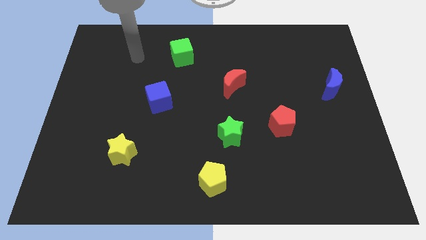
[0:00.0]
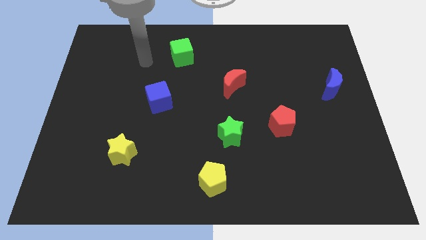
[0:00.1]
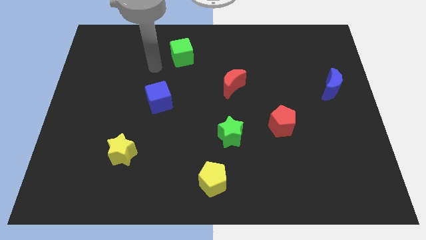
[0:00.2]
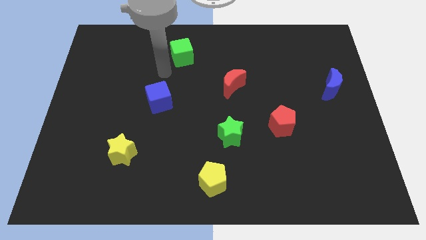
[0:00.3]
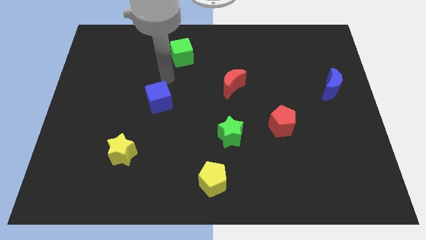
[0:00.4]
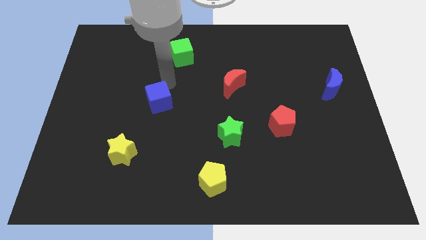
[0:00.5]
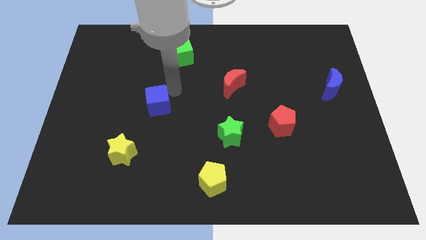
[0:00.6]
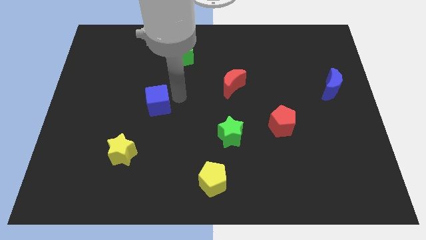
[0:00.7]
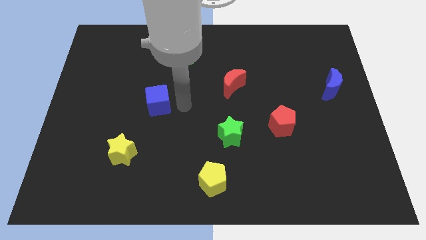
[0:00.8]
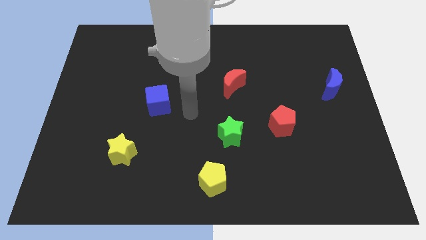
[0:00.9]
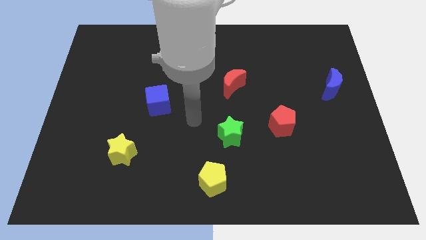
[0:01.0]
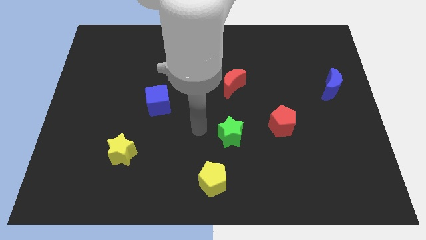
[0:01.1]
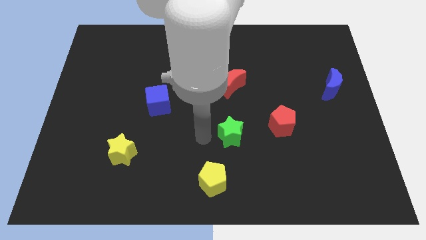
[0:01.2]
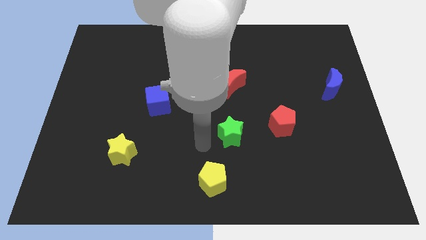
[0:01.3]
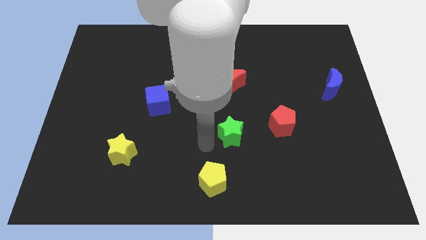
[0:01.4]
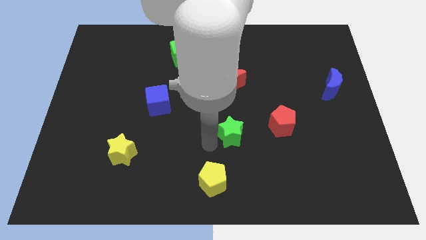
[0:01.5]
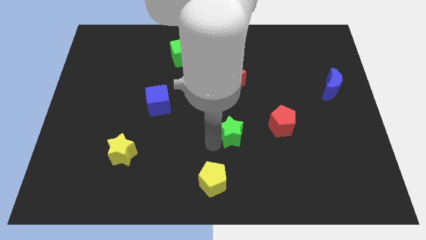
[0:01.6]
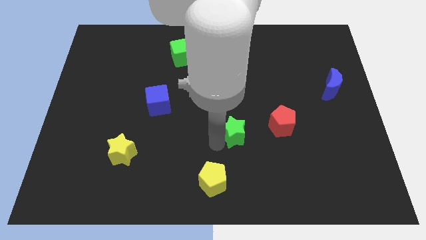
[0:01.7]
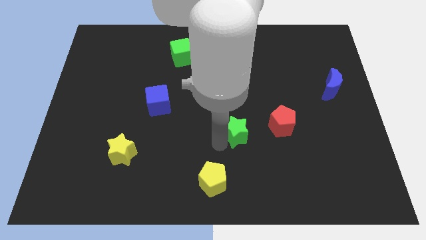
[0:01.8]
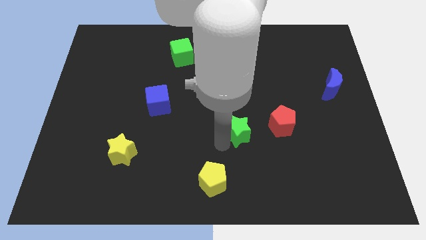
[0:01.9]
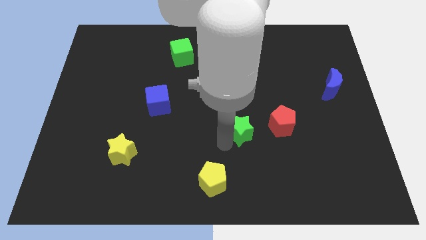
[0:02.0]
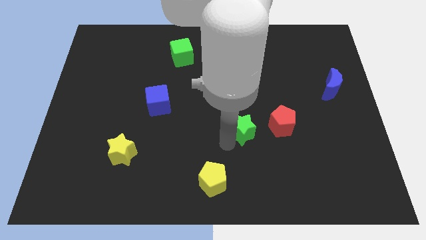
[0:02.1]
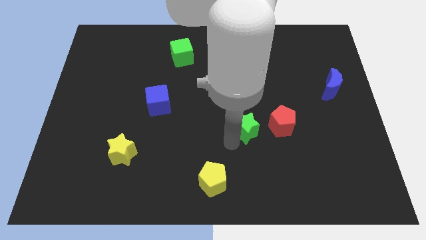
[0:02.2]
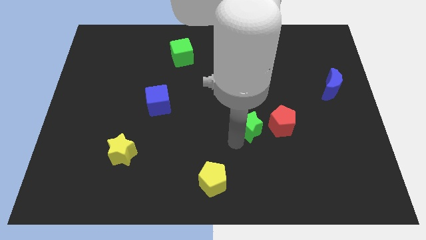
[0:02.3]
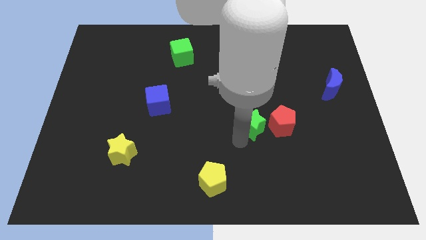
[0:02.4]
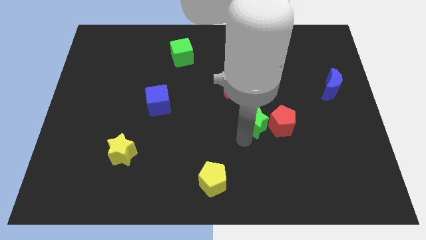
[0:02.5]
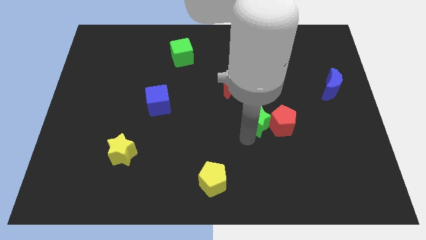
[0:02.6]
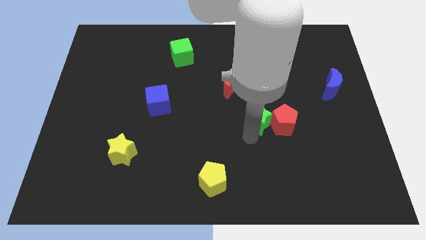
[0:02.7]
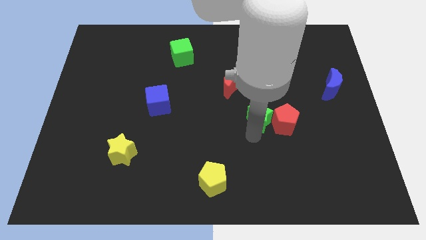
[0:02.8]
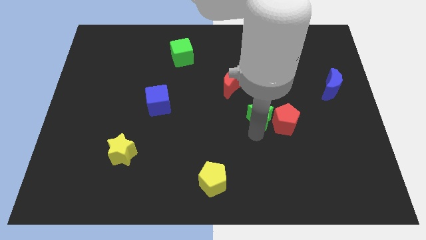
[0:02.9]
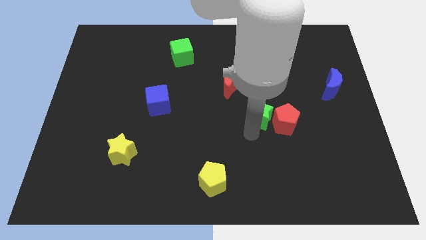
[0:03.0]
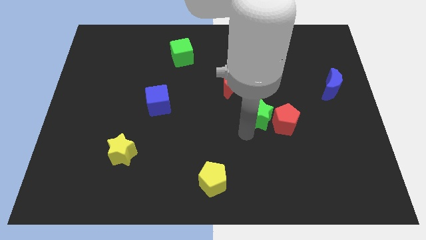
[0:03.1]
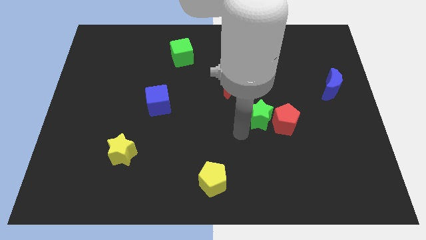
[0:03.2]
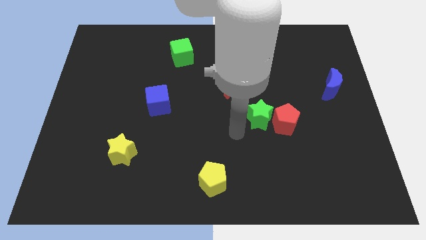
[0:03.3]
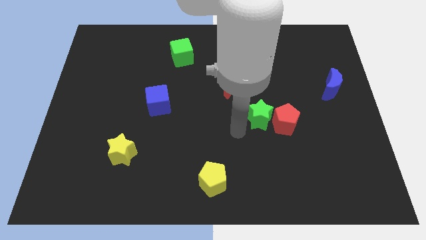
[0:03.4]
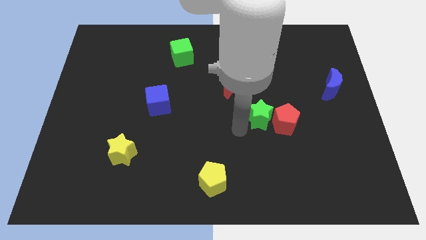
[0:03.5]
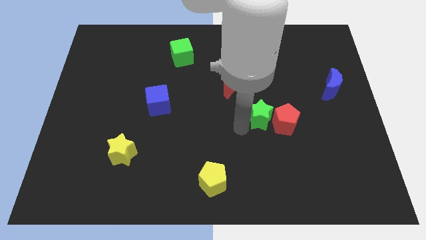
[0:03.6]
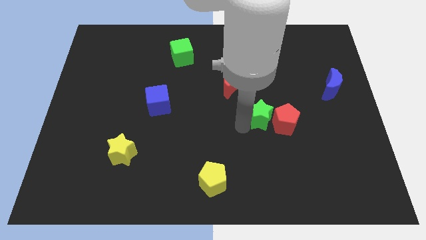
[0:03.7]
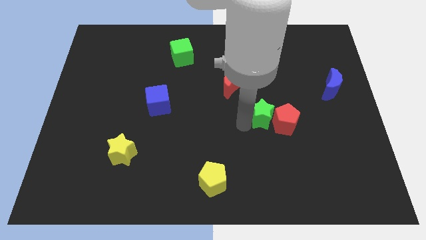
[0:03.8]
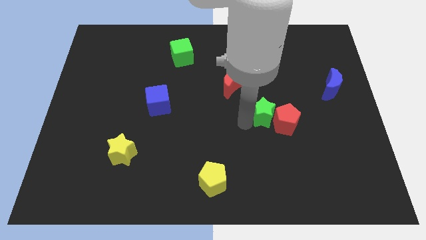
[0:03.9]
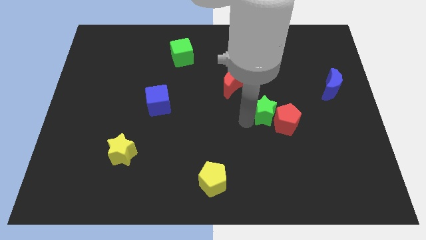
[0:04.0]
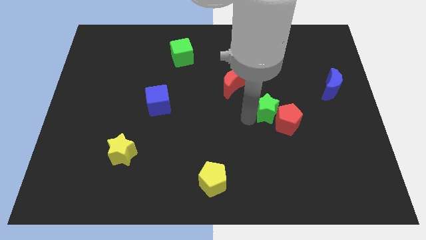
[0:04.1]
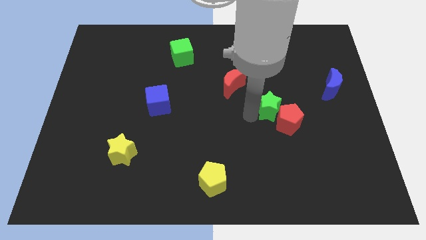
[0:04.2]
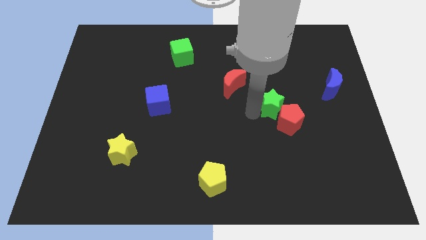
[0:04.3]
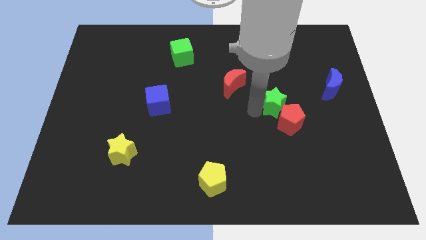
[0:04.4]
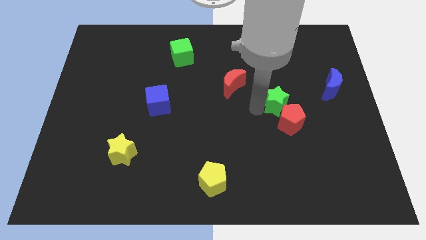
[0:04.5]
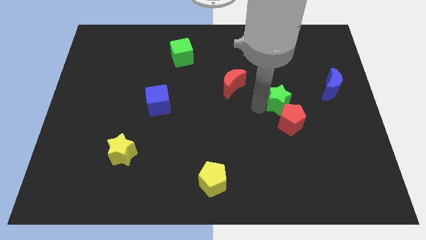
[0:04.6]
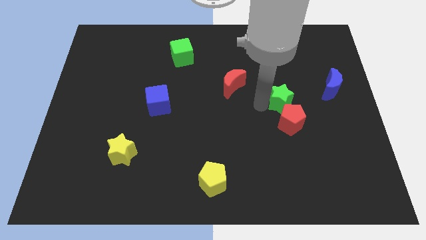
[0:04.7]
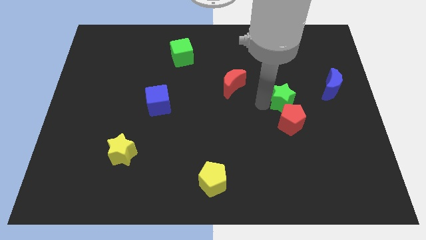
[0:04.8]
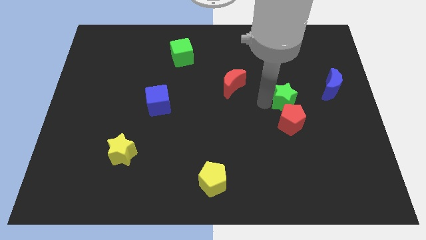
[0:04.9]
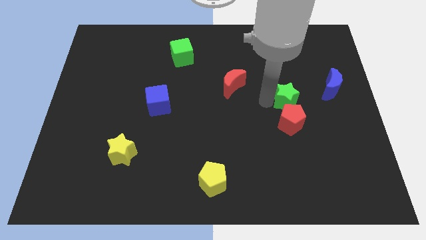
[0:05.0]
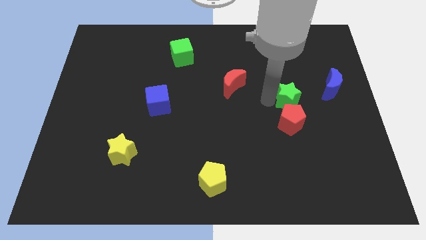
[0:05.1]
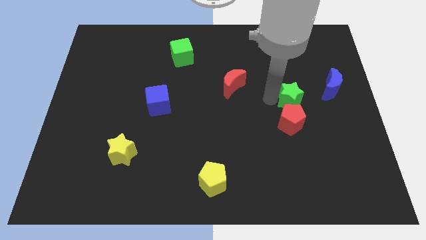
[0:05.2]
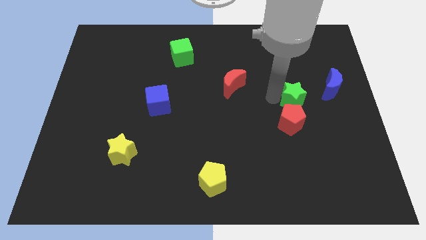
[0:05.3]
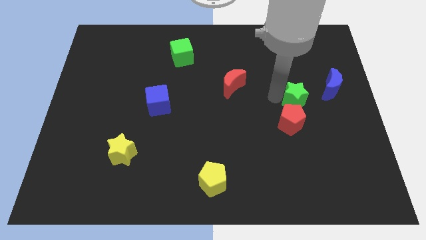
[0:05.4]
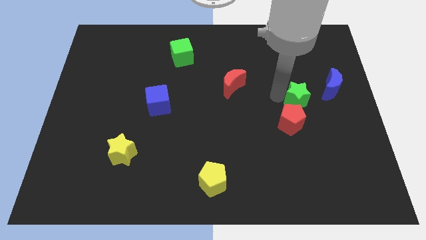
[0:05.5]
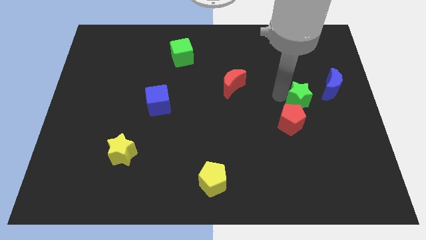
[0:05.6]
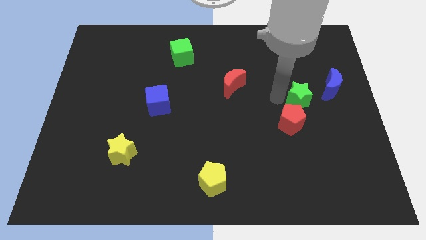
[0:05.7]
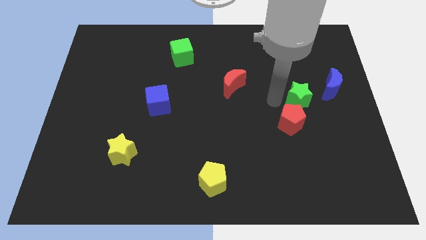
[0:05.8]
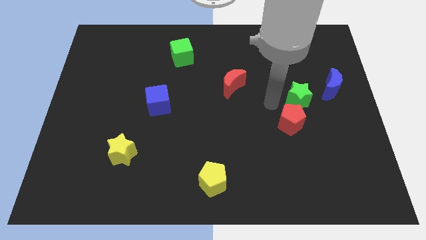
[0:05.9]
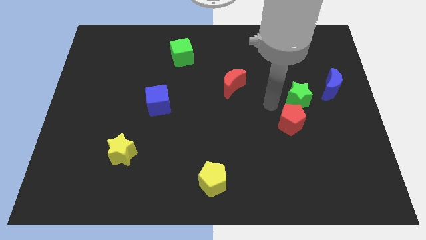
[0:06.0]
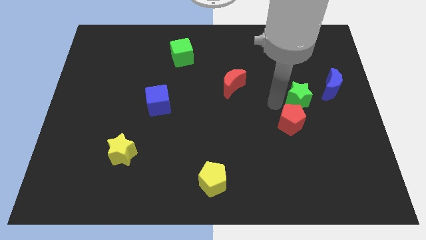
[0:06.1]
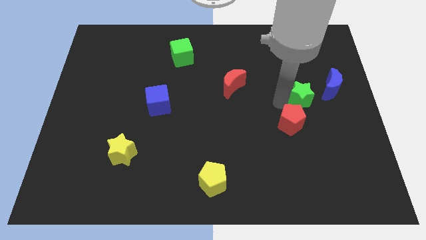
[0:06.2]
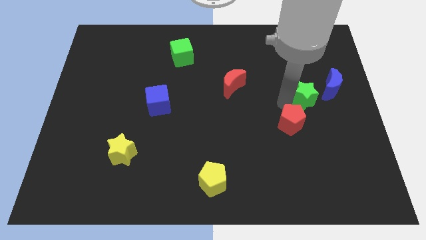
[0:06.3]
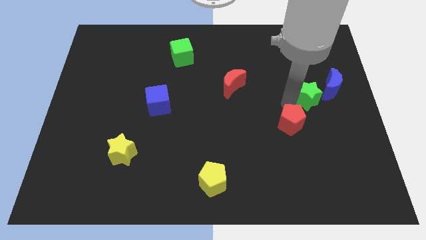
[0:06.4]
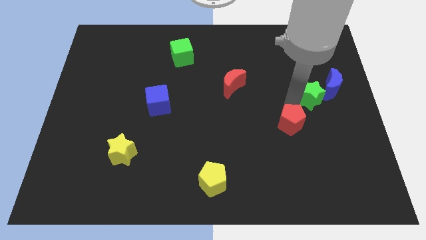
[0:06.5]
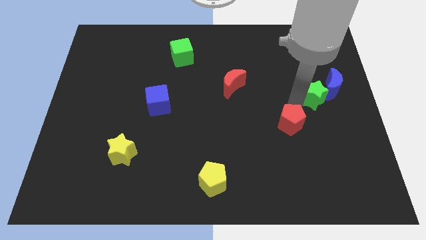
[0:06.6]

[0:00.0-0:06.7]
push the green star close to the blue moon
